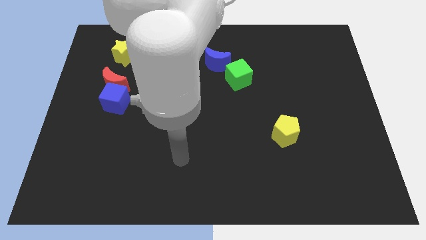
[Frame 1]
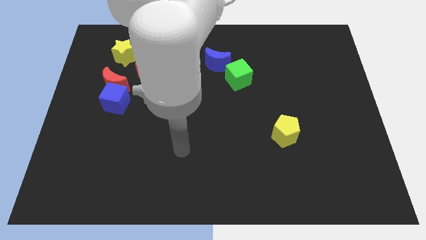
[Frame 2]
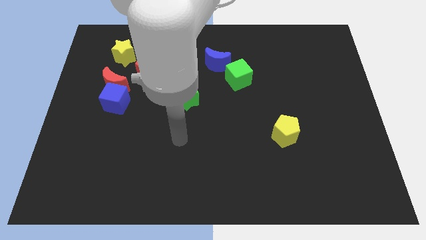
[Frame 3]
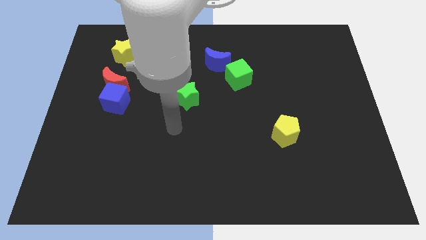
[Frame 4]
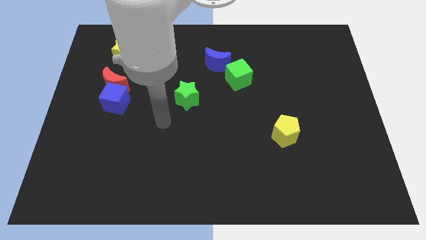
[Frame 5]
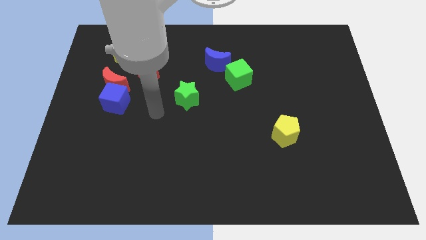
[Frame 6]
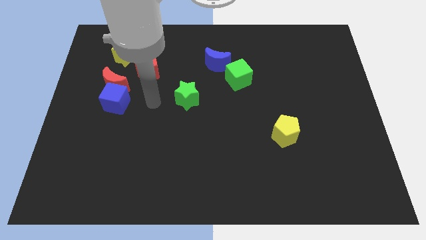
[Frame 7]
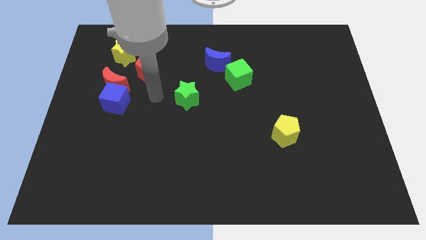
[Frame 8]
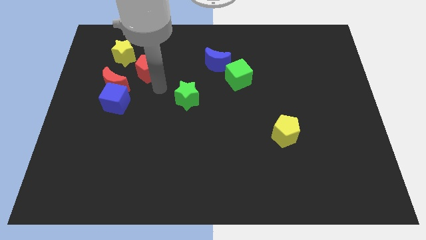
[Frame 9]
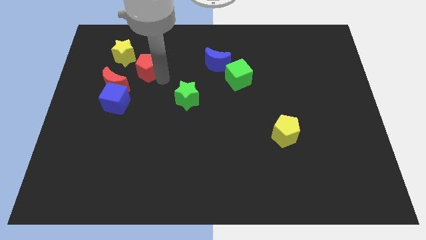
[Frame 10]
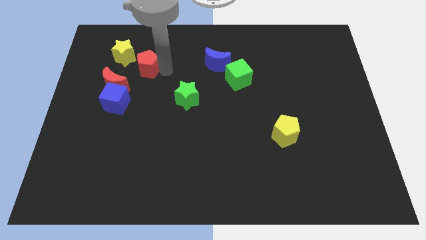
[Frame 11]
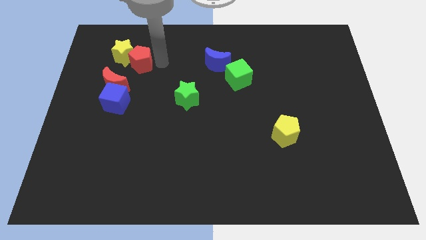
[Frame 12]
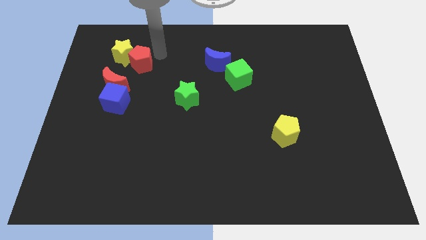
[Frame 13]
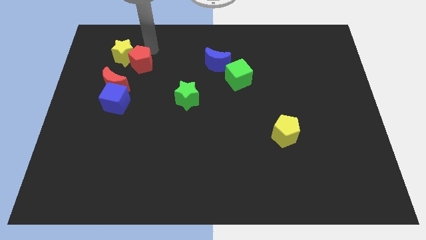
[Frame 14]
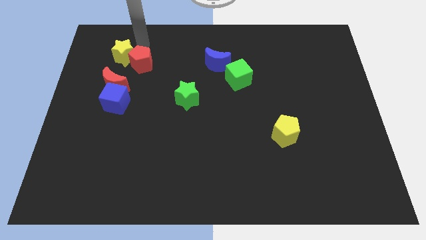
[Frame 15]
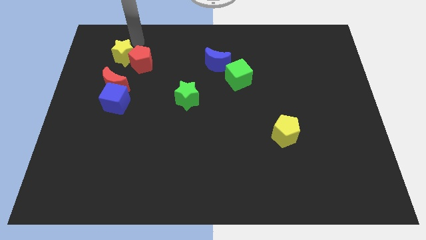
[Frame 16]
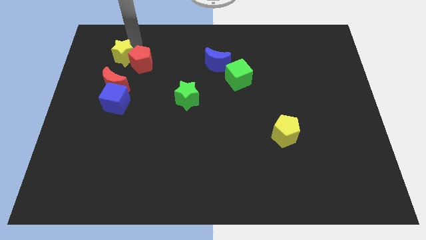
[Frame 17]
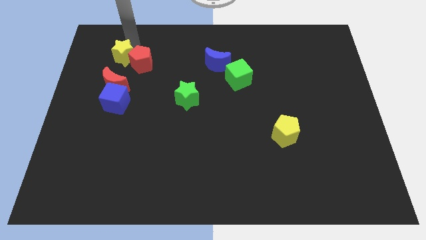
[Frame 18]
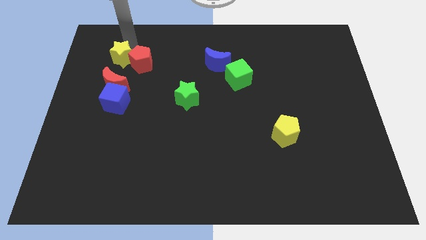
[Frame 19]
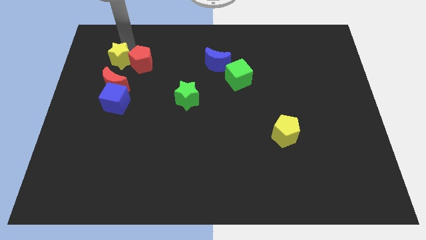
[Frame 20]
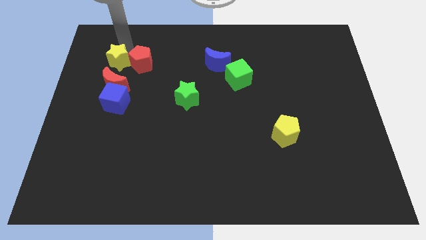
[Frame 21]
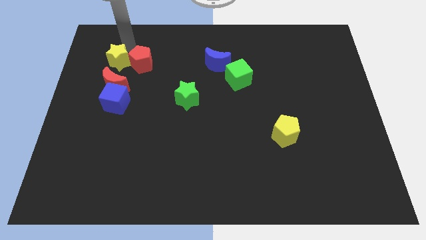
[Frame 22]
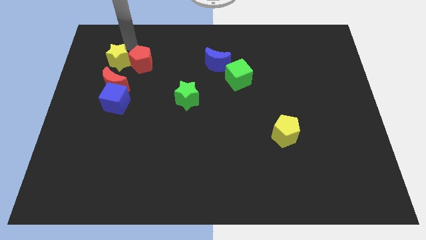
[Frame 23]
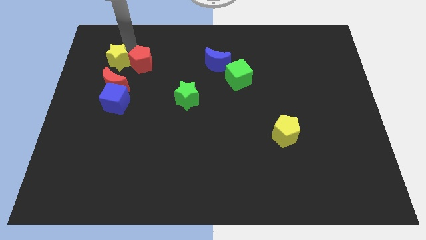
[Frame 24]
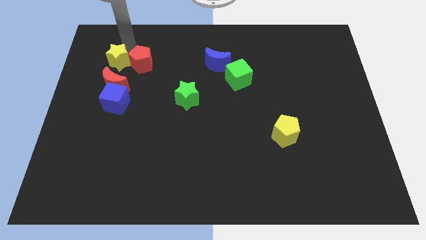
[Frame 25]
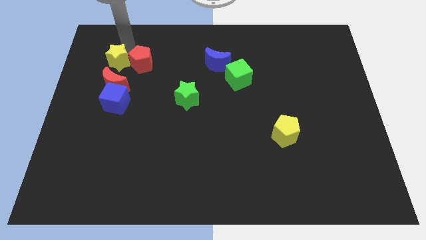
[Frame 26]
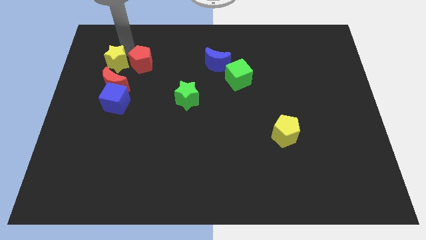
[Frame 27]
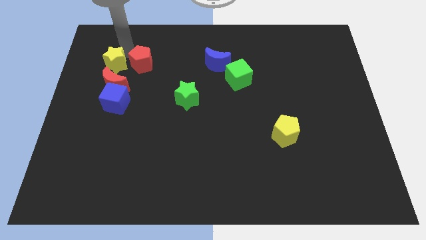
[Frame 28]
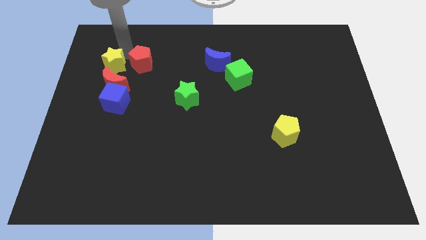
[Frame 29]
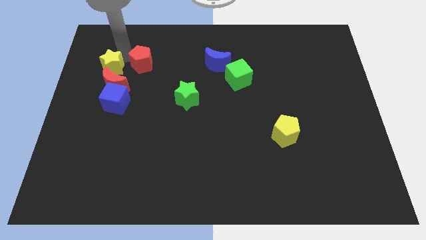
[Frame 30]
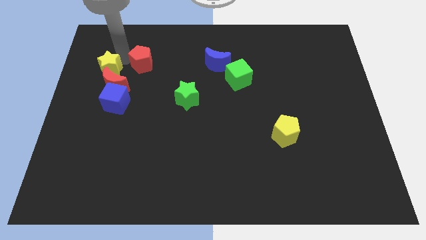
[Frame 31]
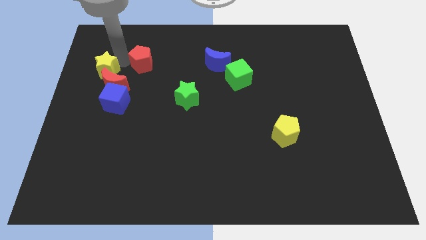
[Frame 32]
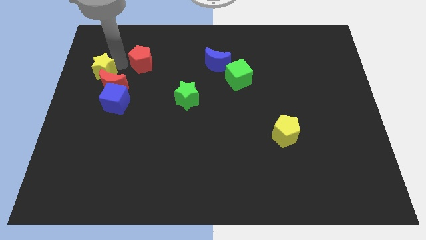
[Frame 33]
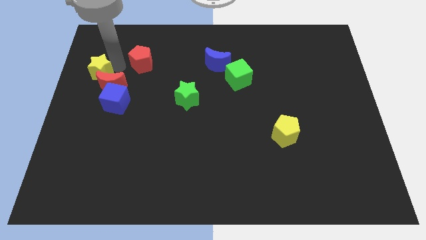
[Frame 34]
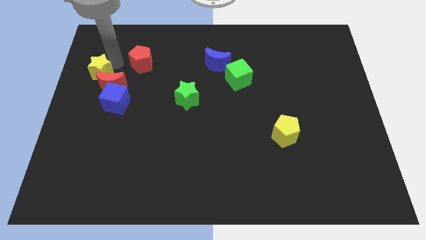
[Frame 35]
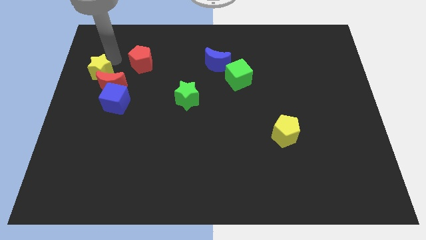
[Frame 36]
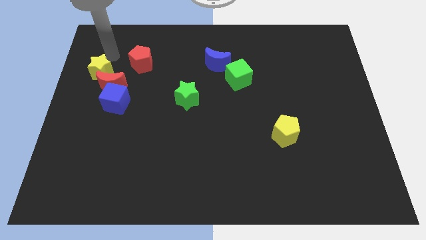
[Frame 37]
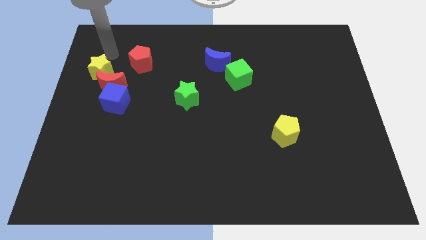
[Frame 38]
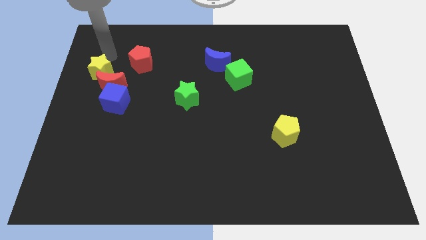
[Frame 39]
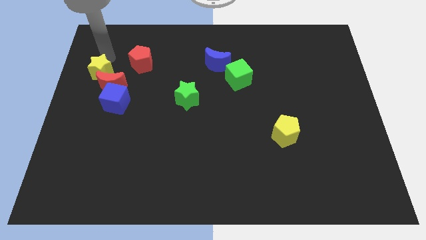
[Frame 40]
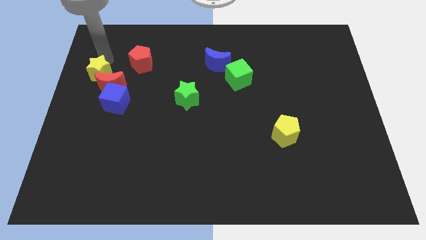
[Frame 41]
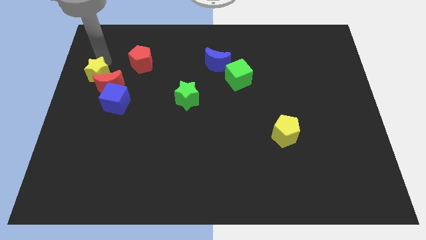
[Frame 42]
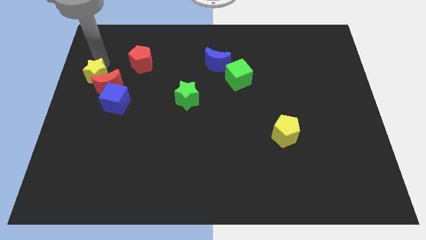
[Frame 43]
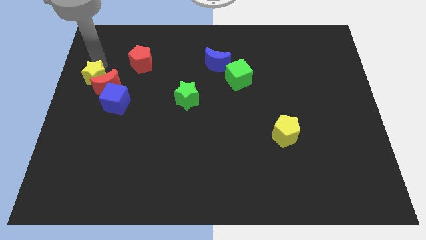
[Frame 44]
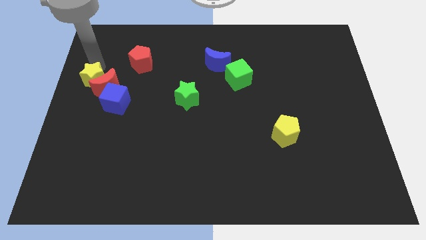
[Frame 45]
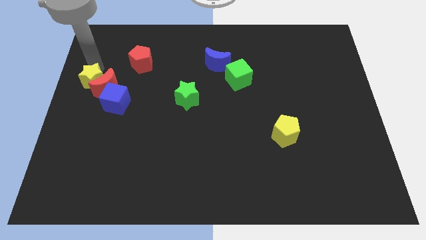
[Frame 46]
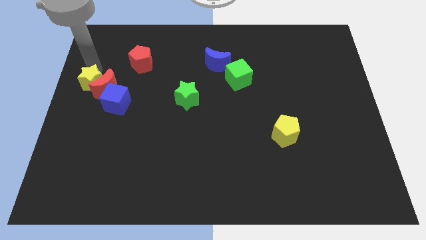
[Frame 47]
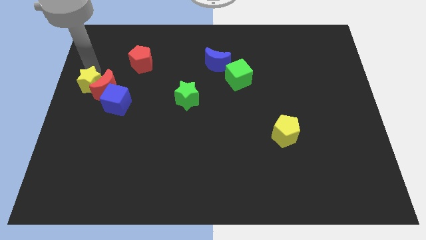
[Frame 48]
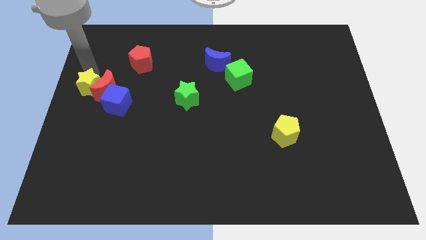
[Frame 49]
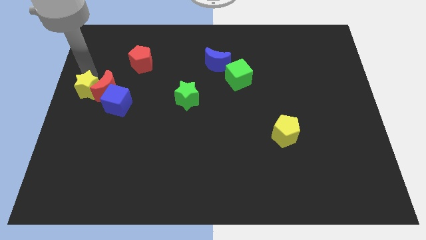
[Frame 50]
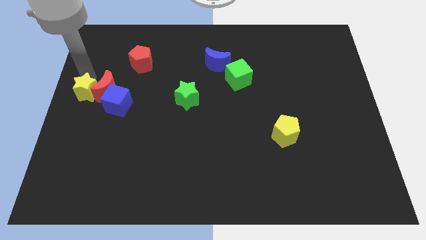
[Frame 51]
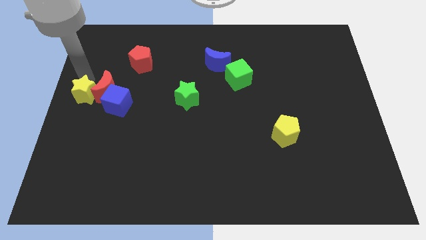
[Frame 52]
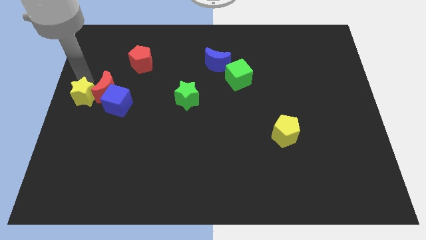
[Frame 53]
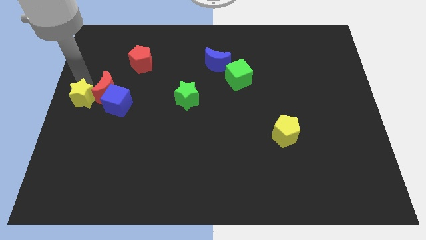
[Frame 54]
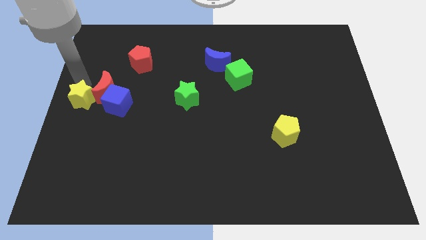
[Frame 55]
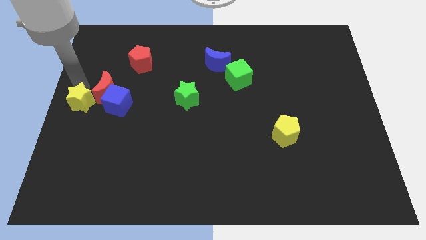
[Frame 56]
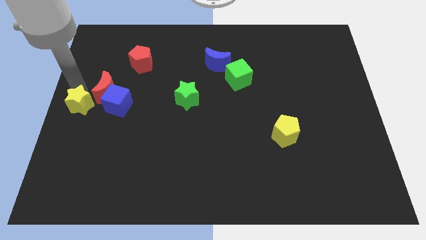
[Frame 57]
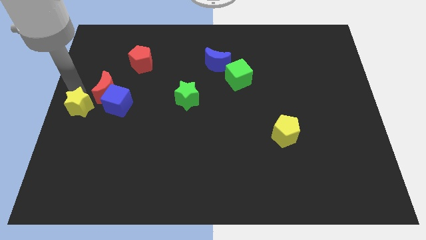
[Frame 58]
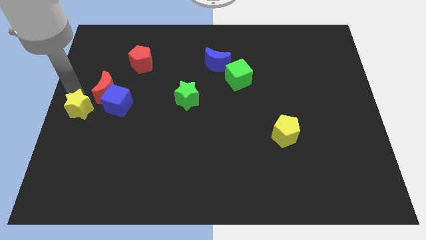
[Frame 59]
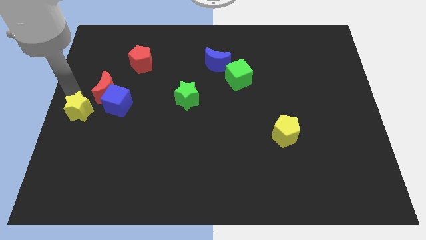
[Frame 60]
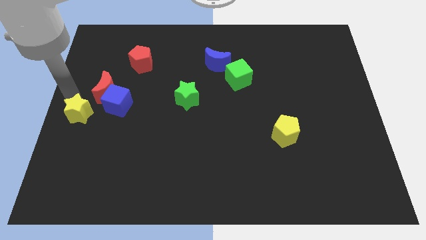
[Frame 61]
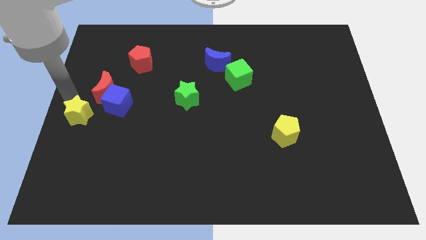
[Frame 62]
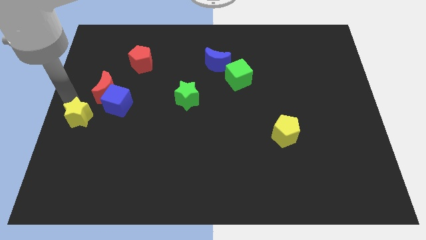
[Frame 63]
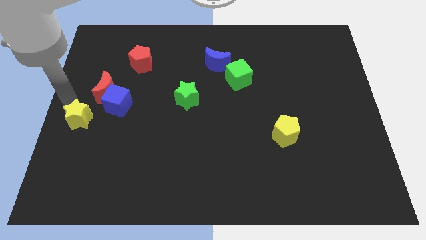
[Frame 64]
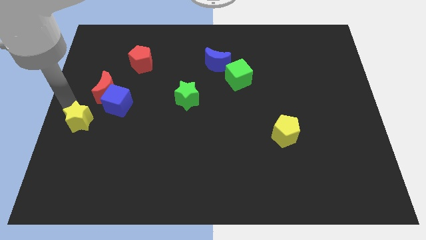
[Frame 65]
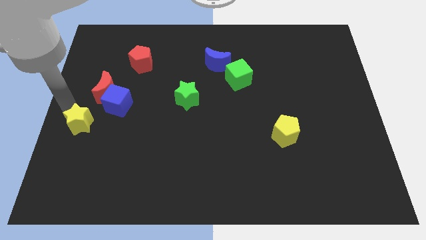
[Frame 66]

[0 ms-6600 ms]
slide the yellow star downwards

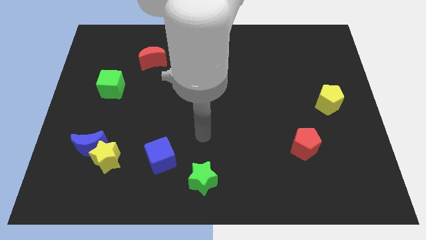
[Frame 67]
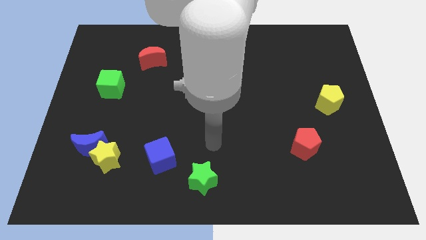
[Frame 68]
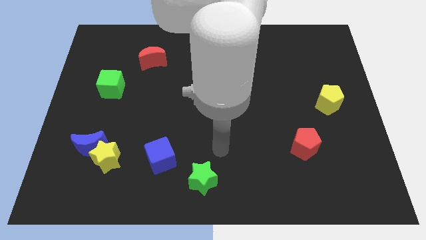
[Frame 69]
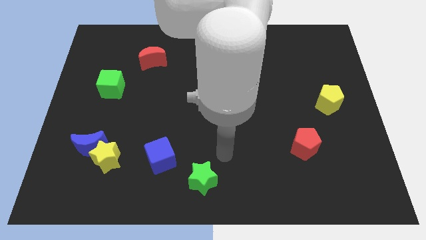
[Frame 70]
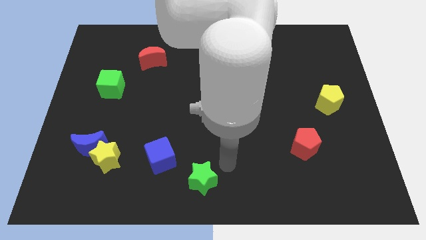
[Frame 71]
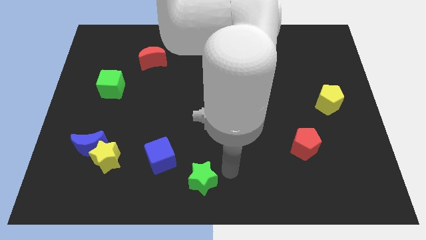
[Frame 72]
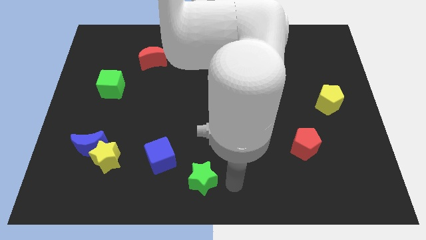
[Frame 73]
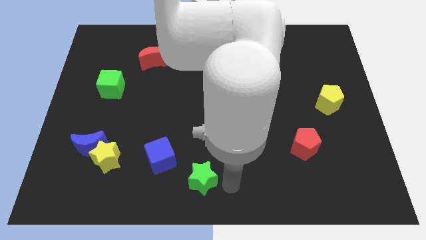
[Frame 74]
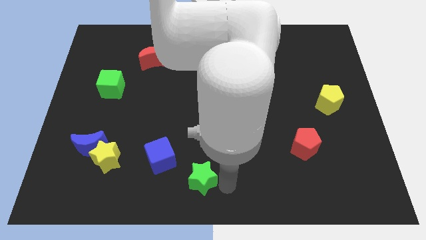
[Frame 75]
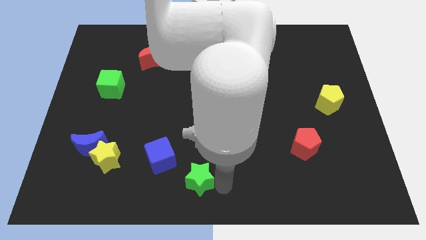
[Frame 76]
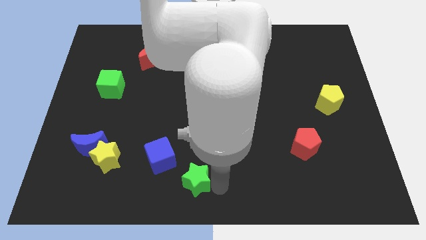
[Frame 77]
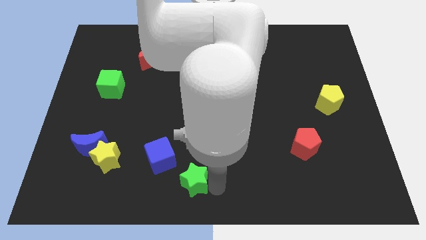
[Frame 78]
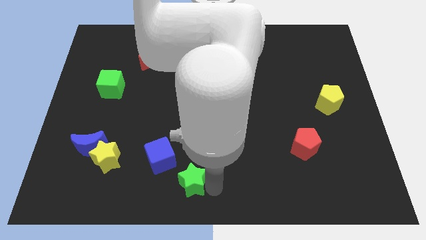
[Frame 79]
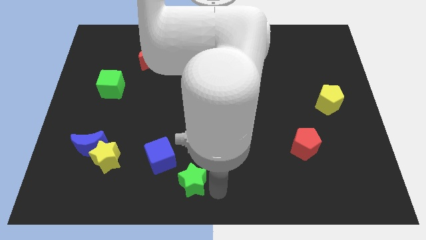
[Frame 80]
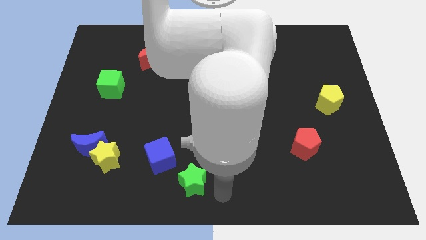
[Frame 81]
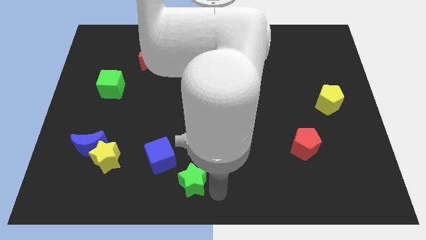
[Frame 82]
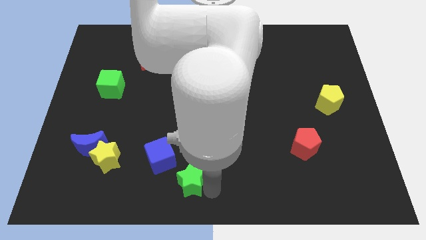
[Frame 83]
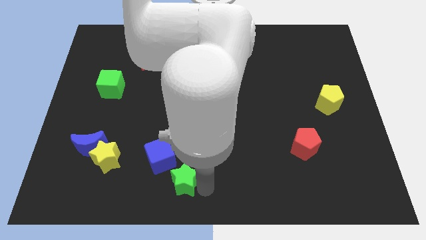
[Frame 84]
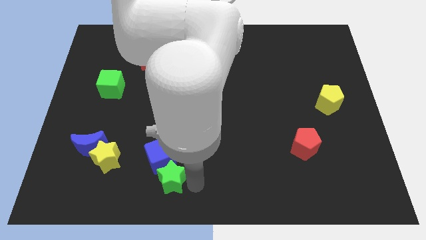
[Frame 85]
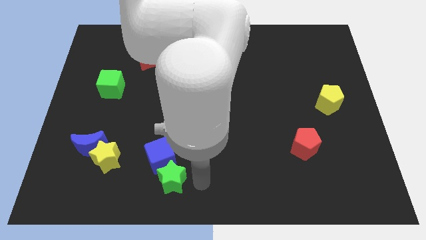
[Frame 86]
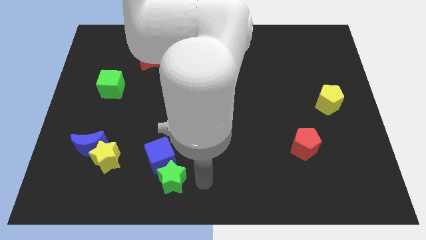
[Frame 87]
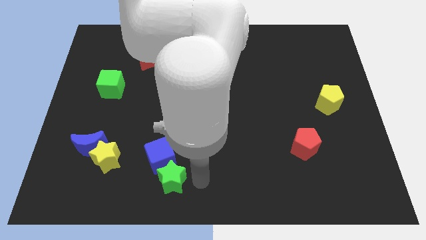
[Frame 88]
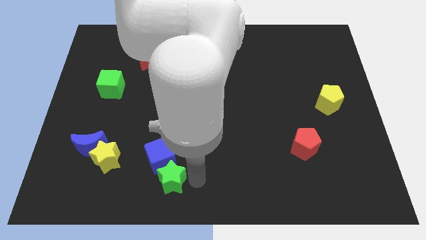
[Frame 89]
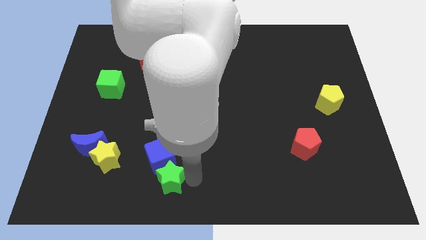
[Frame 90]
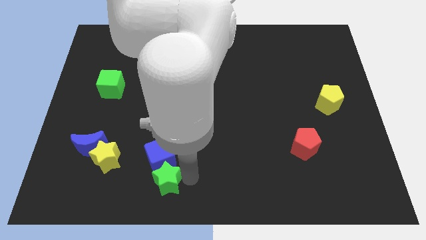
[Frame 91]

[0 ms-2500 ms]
move the green star a little bit to the left
